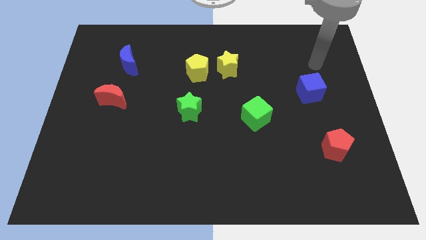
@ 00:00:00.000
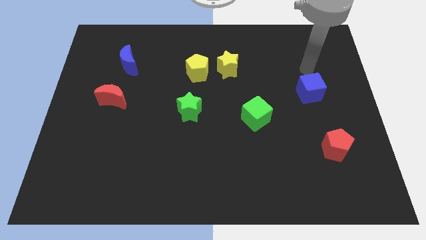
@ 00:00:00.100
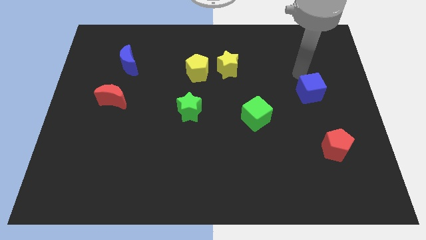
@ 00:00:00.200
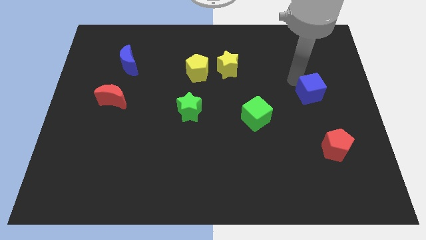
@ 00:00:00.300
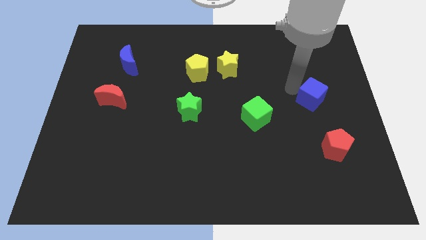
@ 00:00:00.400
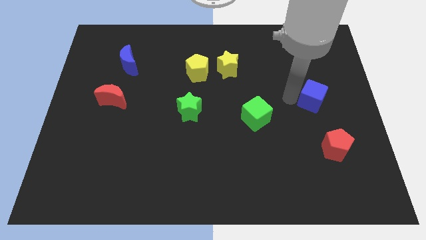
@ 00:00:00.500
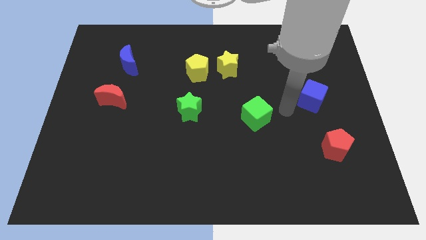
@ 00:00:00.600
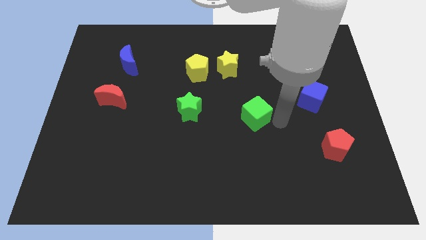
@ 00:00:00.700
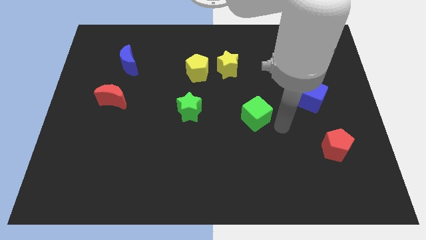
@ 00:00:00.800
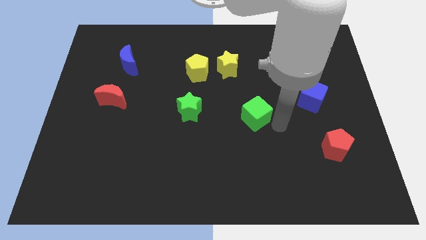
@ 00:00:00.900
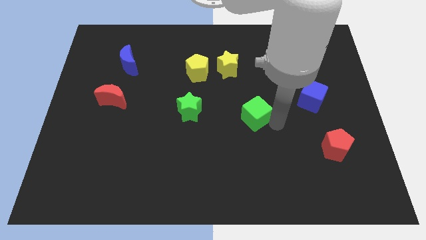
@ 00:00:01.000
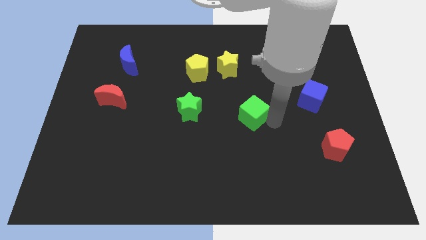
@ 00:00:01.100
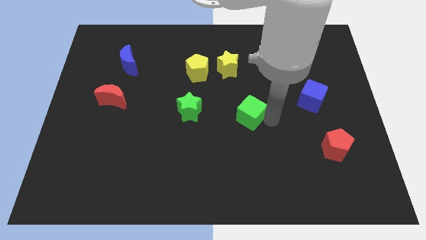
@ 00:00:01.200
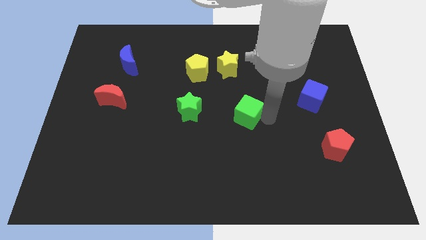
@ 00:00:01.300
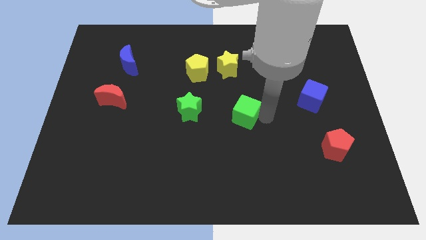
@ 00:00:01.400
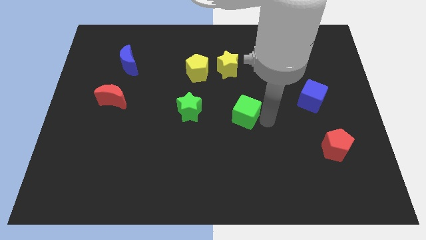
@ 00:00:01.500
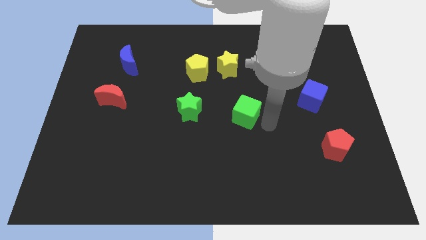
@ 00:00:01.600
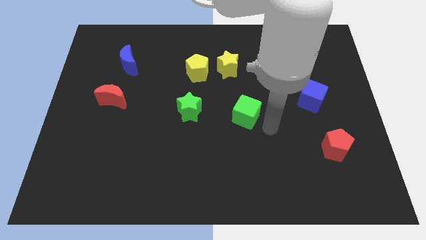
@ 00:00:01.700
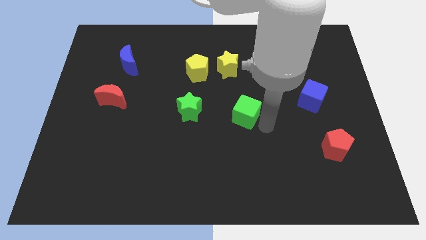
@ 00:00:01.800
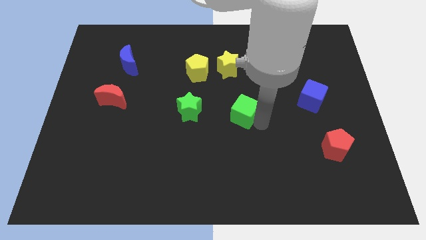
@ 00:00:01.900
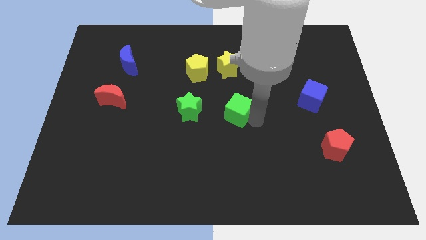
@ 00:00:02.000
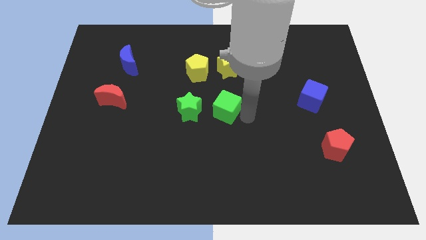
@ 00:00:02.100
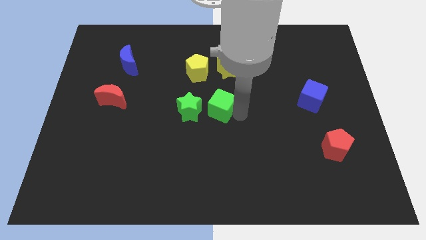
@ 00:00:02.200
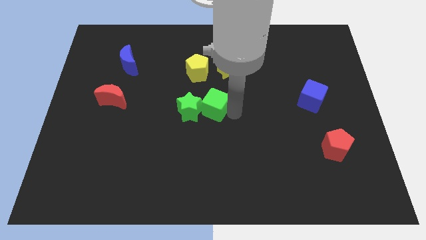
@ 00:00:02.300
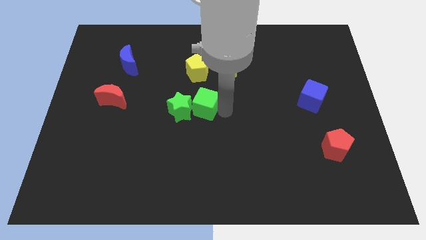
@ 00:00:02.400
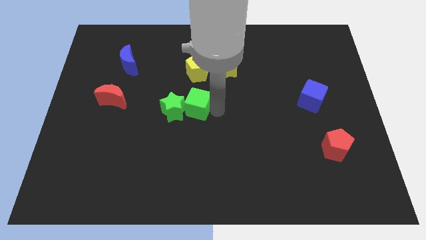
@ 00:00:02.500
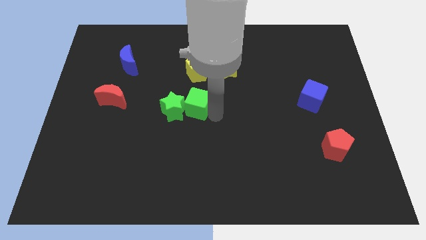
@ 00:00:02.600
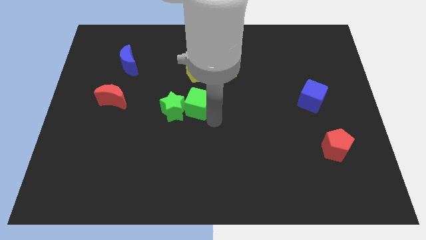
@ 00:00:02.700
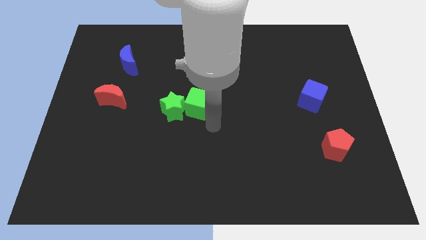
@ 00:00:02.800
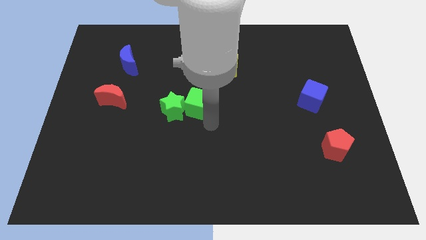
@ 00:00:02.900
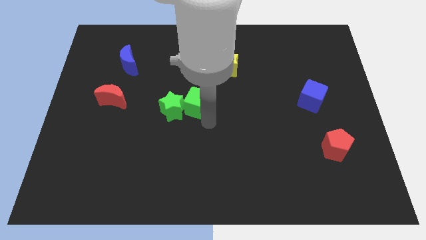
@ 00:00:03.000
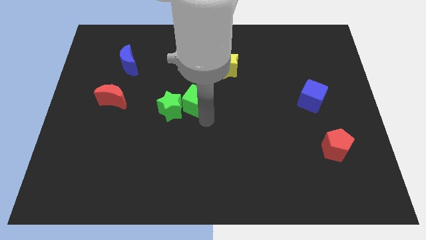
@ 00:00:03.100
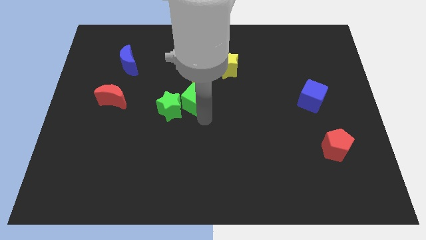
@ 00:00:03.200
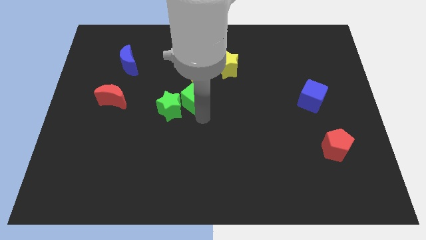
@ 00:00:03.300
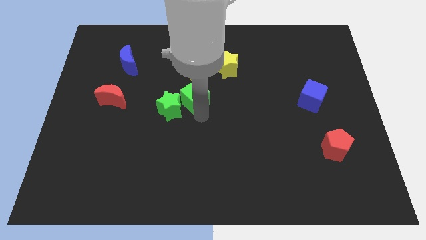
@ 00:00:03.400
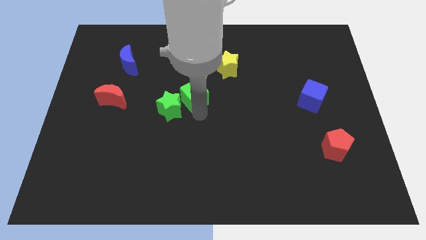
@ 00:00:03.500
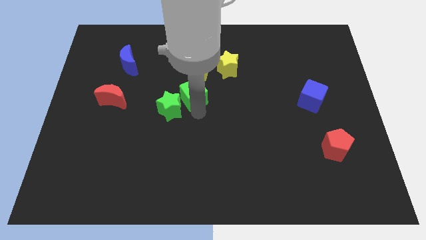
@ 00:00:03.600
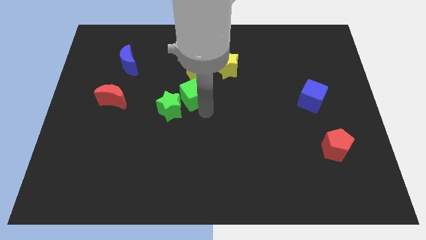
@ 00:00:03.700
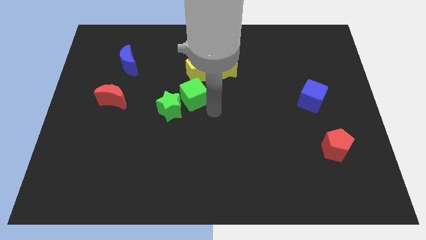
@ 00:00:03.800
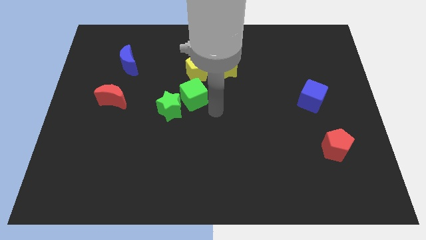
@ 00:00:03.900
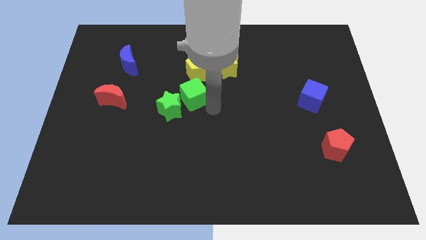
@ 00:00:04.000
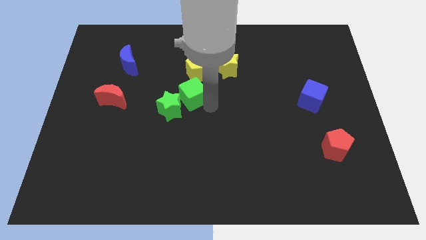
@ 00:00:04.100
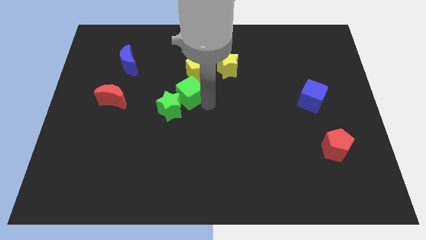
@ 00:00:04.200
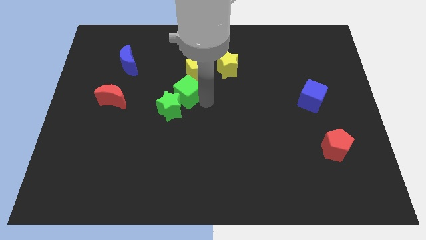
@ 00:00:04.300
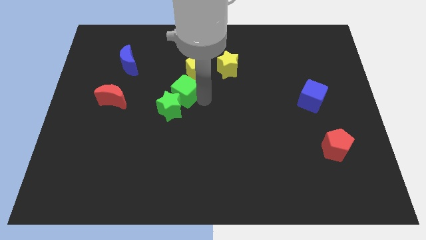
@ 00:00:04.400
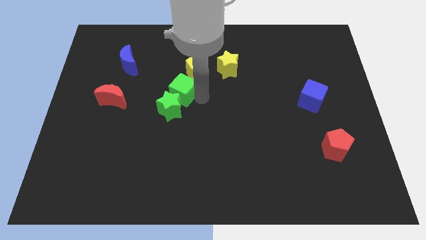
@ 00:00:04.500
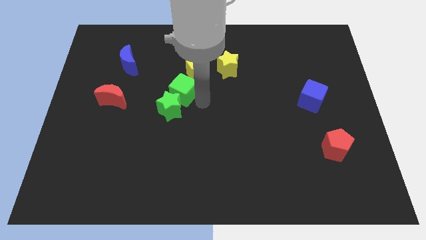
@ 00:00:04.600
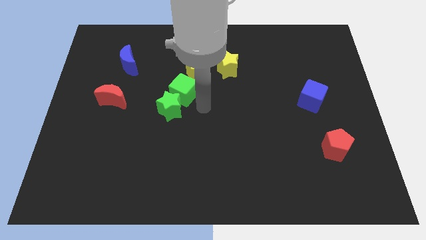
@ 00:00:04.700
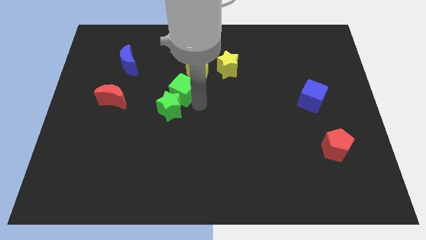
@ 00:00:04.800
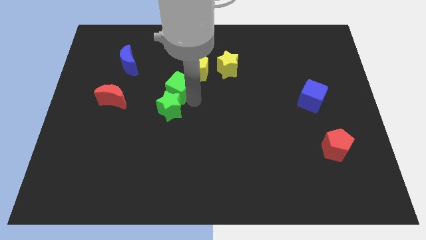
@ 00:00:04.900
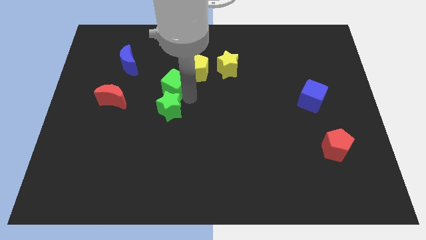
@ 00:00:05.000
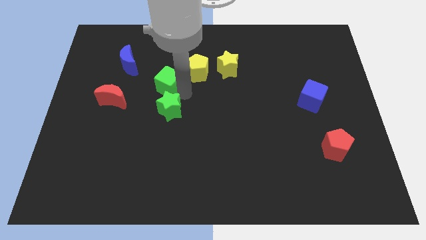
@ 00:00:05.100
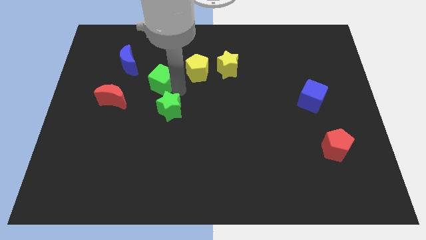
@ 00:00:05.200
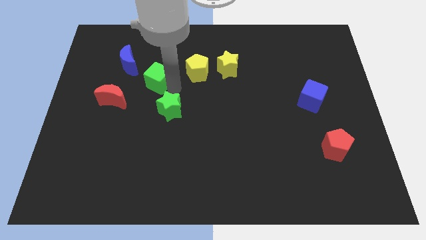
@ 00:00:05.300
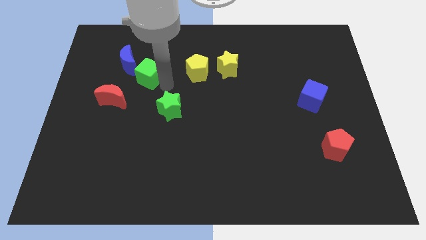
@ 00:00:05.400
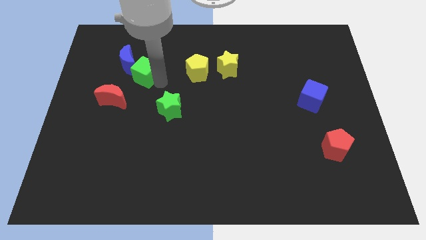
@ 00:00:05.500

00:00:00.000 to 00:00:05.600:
move the green cube to the blue moon

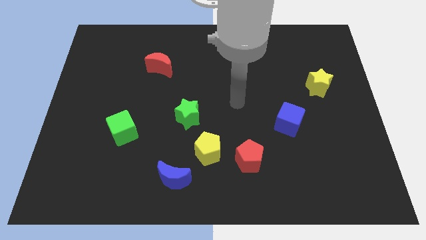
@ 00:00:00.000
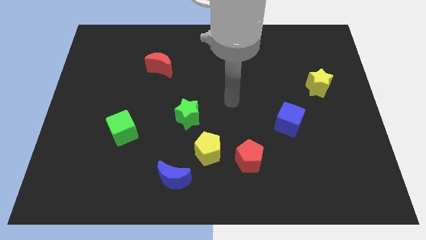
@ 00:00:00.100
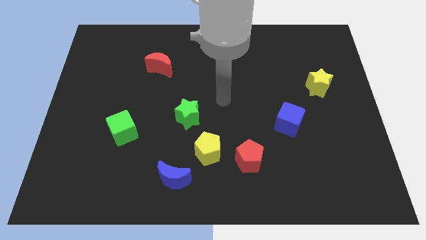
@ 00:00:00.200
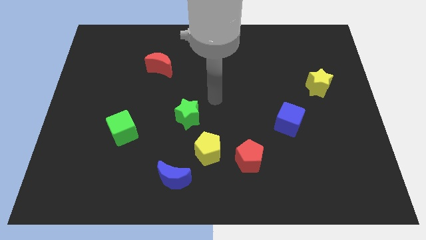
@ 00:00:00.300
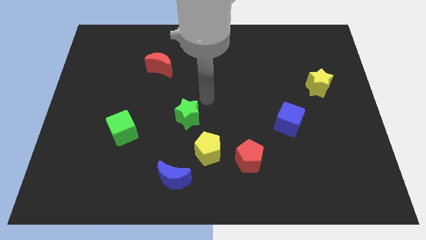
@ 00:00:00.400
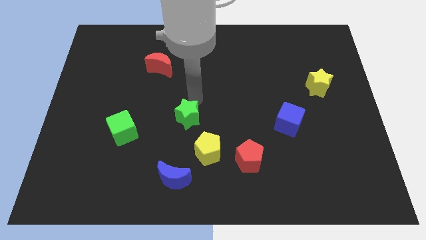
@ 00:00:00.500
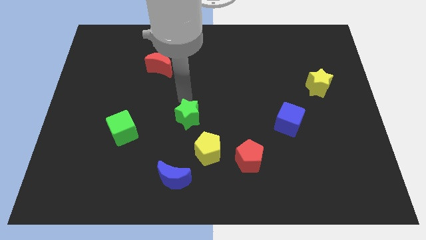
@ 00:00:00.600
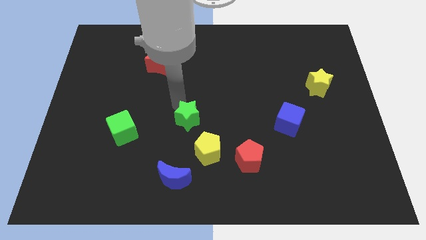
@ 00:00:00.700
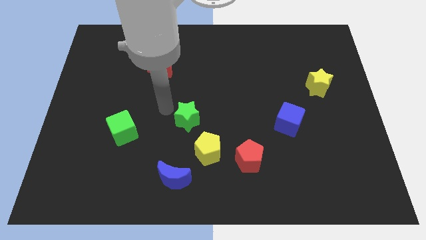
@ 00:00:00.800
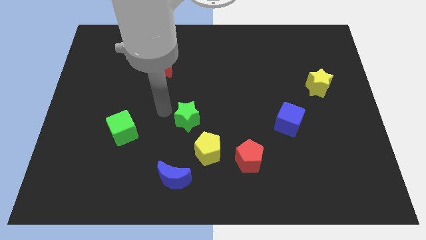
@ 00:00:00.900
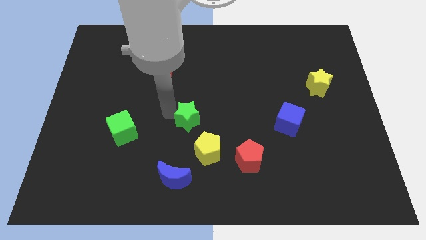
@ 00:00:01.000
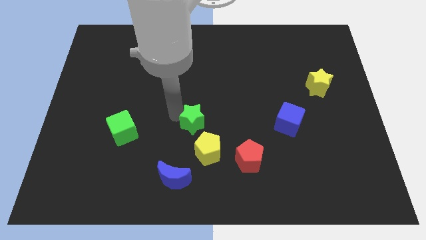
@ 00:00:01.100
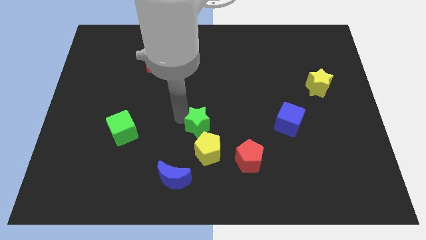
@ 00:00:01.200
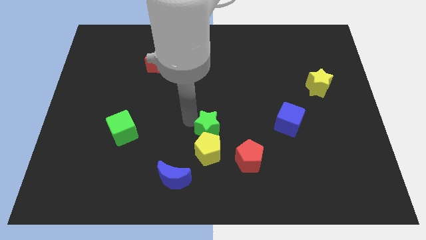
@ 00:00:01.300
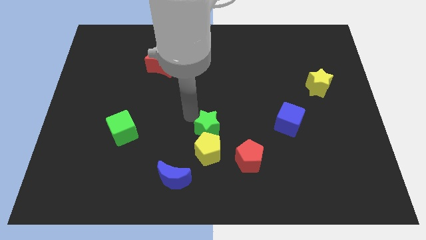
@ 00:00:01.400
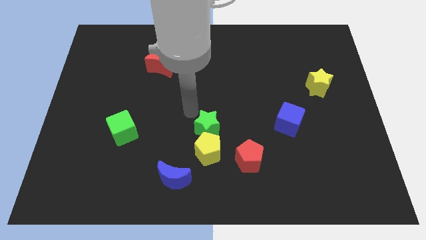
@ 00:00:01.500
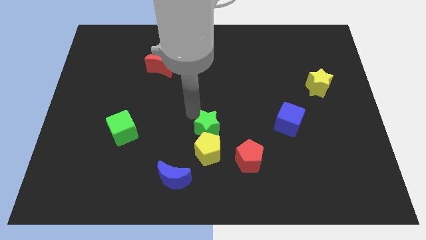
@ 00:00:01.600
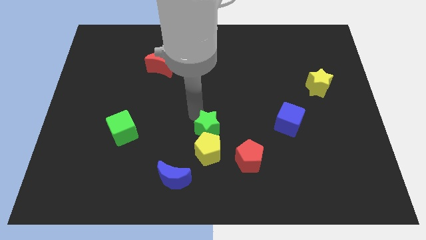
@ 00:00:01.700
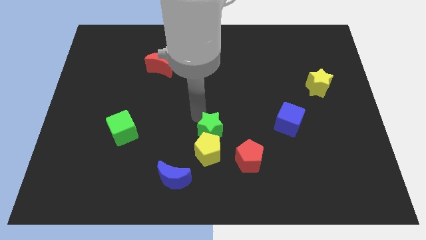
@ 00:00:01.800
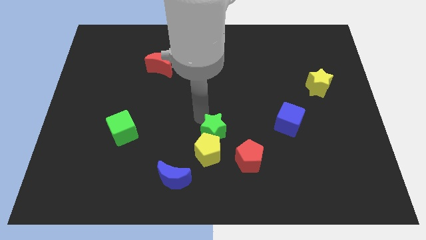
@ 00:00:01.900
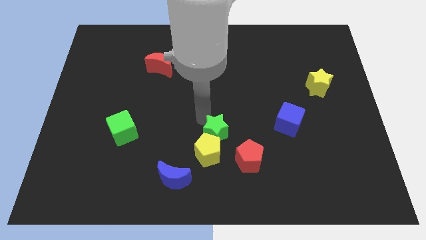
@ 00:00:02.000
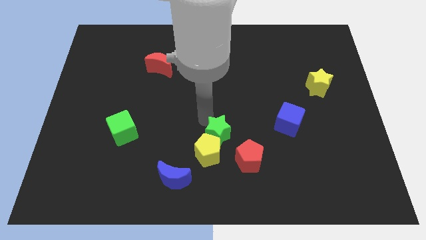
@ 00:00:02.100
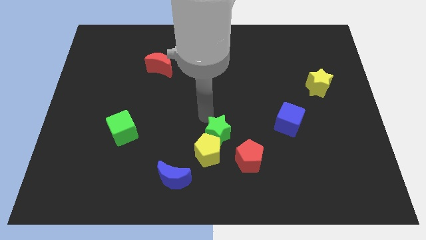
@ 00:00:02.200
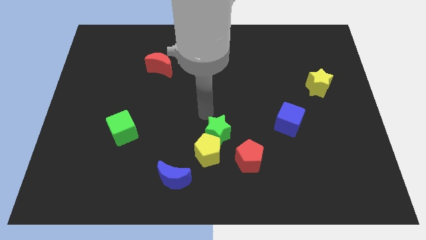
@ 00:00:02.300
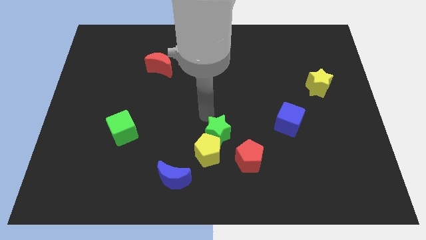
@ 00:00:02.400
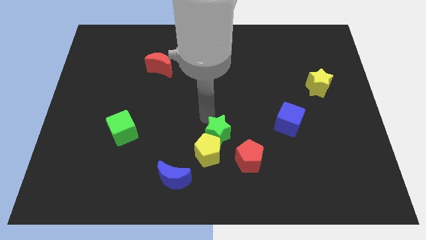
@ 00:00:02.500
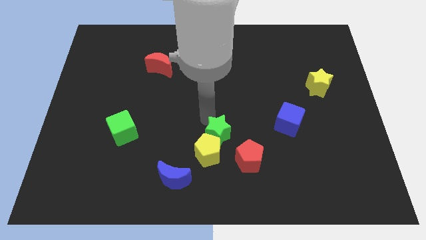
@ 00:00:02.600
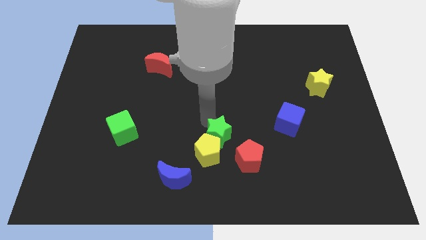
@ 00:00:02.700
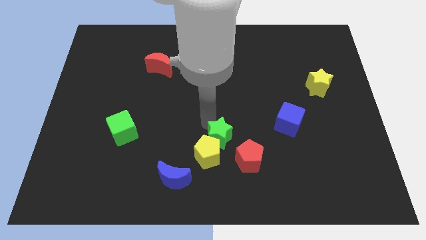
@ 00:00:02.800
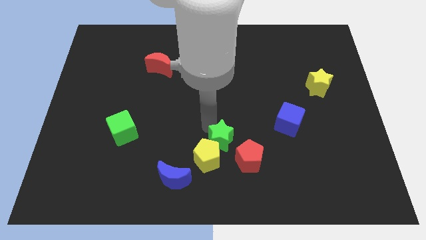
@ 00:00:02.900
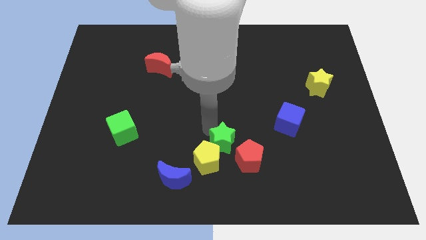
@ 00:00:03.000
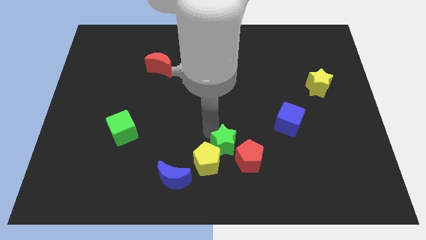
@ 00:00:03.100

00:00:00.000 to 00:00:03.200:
push the green star next to the red pentagon
